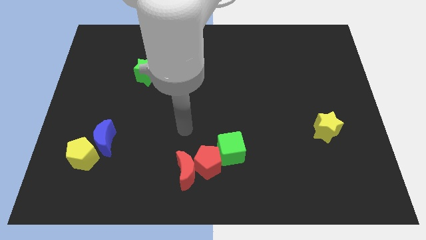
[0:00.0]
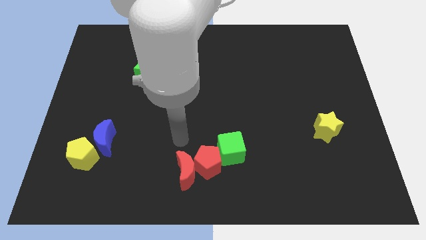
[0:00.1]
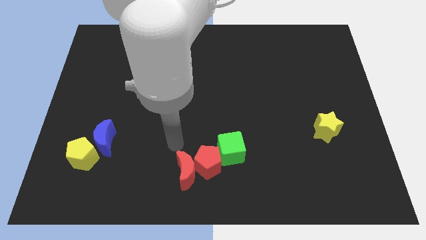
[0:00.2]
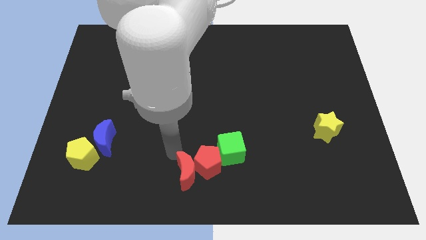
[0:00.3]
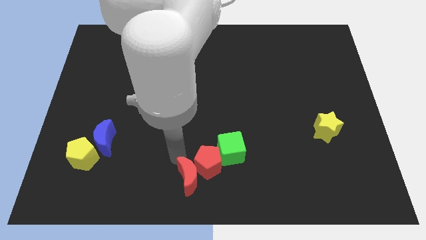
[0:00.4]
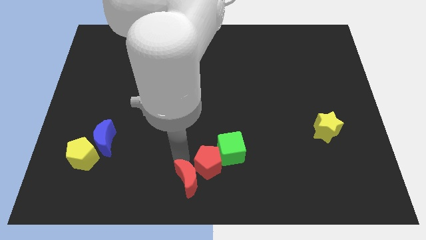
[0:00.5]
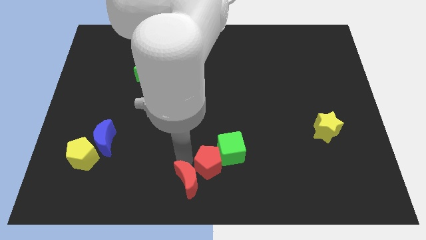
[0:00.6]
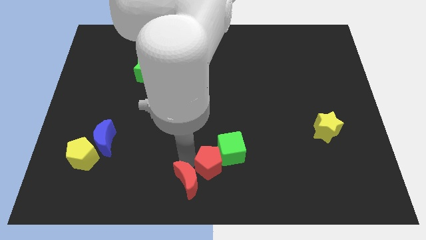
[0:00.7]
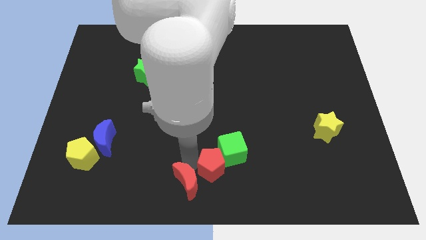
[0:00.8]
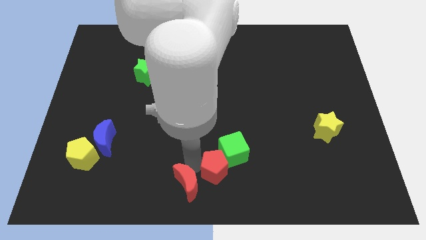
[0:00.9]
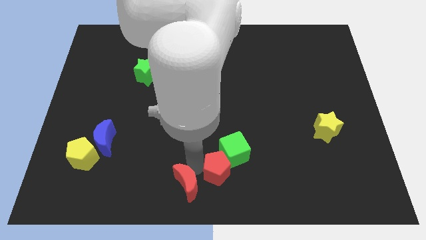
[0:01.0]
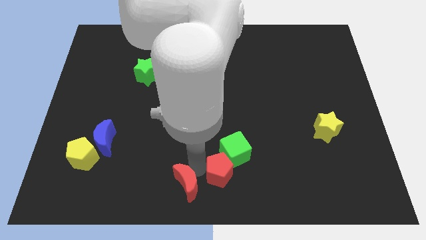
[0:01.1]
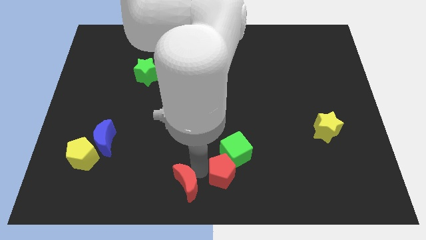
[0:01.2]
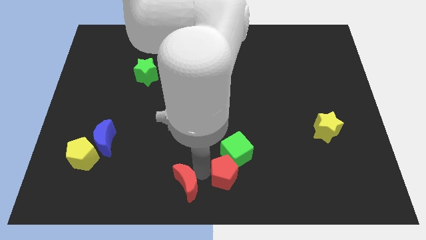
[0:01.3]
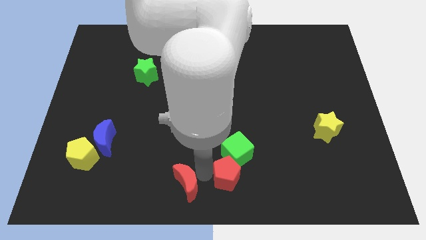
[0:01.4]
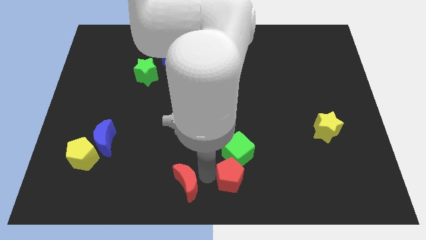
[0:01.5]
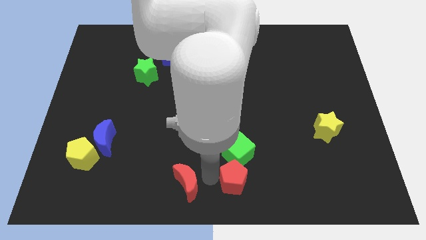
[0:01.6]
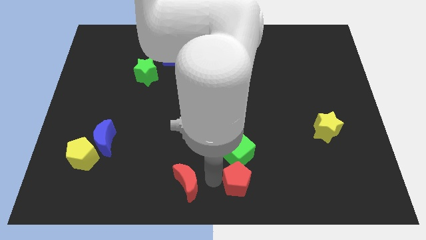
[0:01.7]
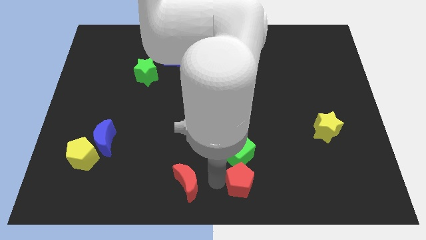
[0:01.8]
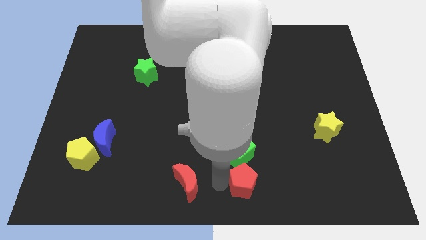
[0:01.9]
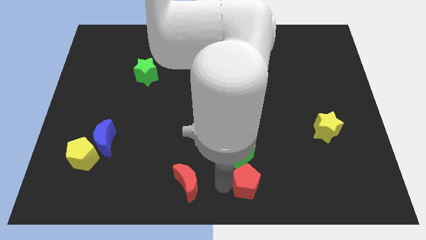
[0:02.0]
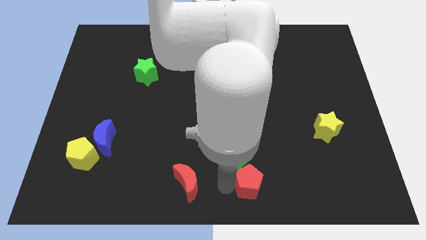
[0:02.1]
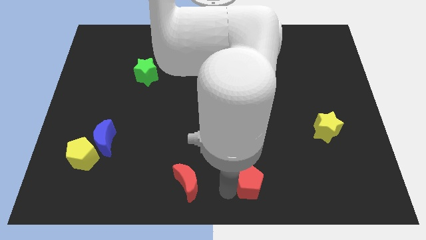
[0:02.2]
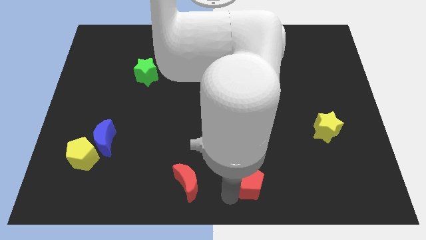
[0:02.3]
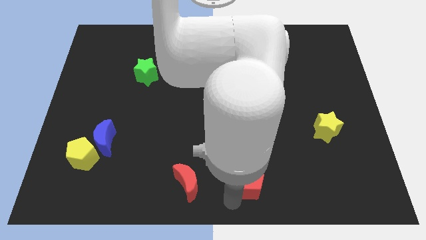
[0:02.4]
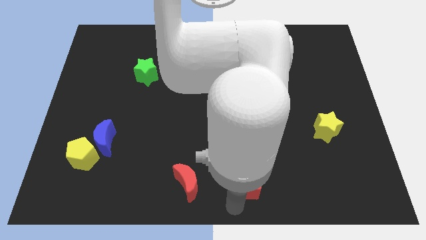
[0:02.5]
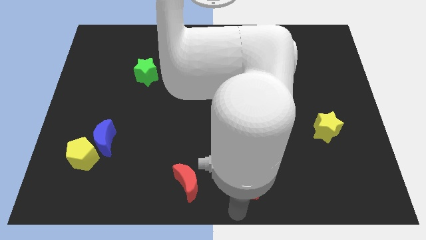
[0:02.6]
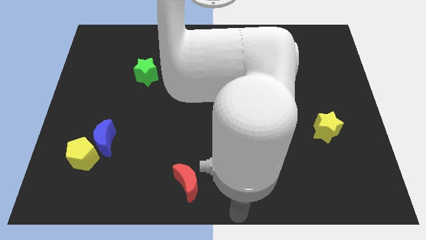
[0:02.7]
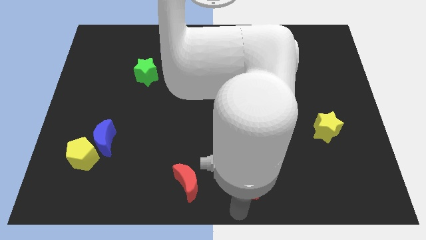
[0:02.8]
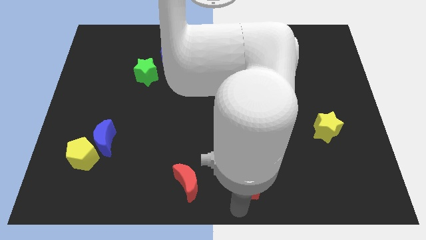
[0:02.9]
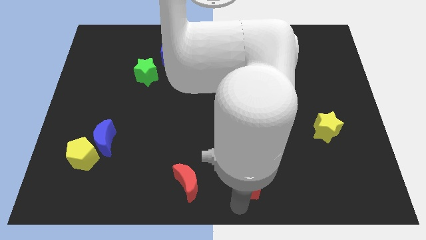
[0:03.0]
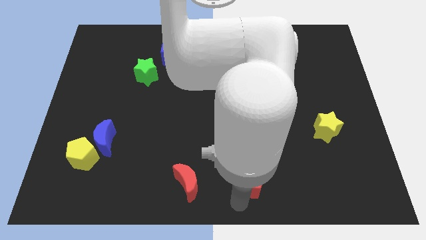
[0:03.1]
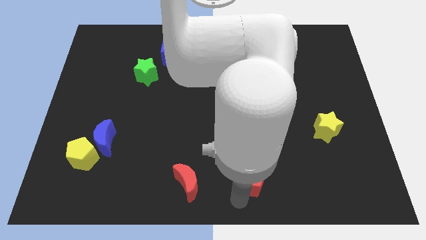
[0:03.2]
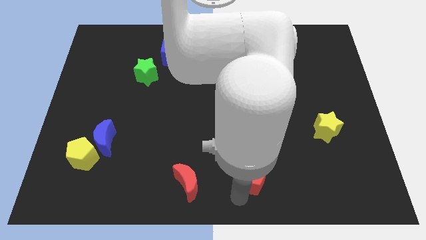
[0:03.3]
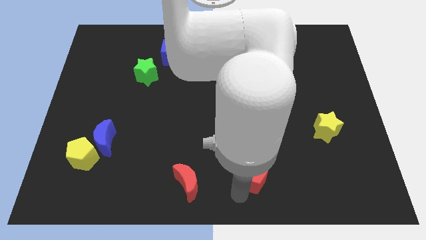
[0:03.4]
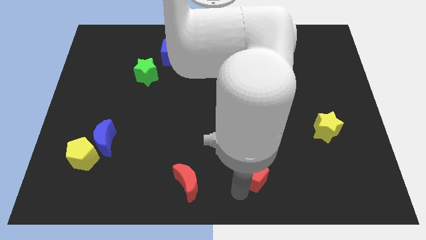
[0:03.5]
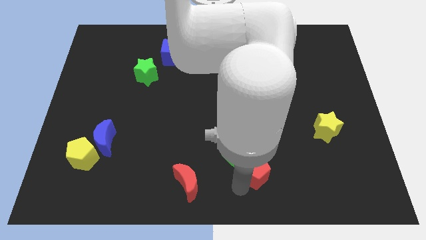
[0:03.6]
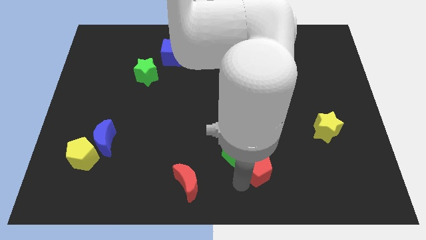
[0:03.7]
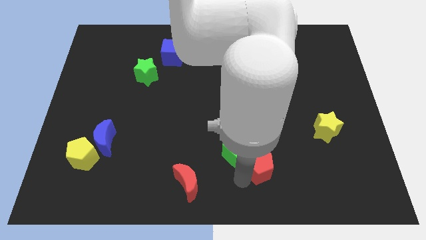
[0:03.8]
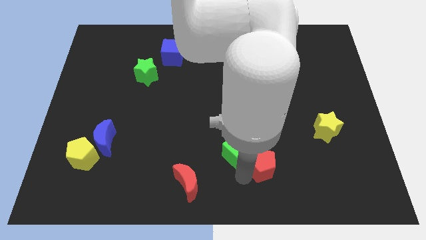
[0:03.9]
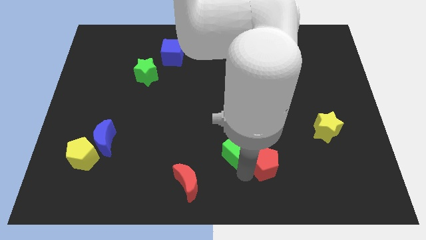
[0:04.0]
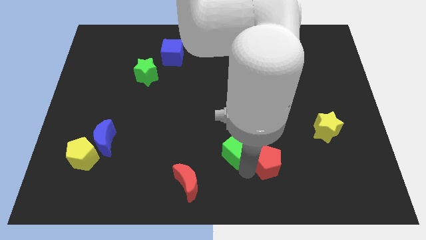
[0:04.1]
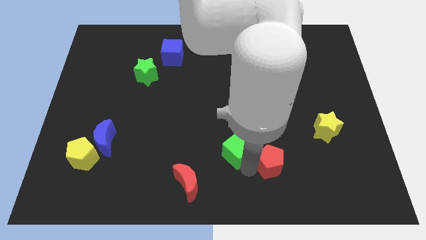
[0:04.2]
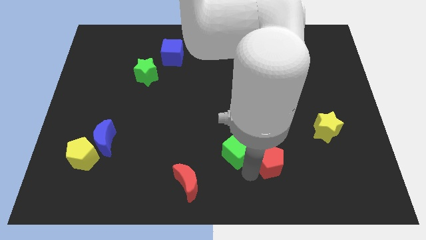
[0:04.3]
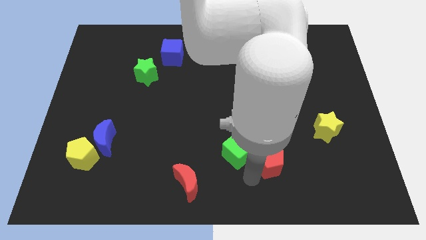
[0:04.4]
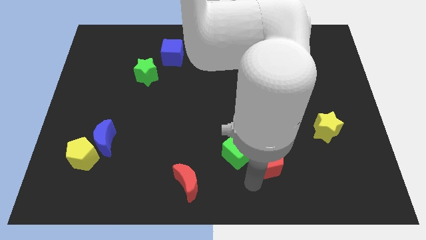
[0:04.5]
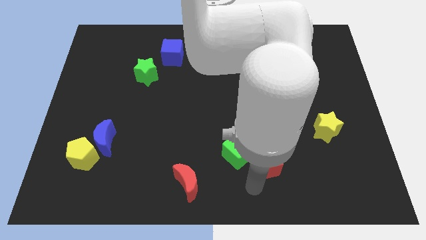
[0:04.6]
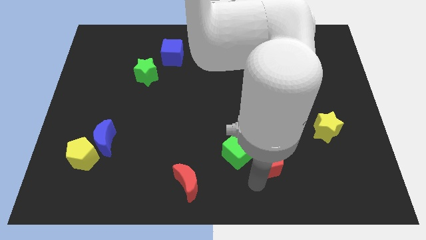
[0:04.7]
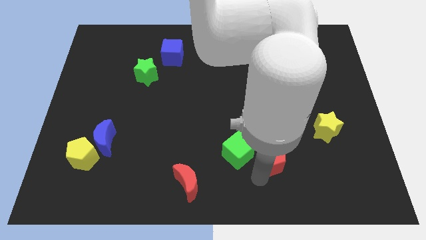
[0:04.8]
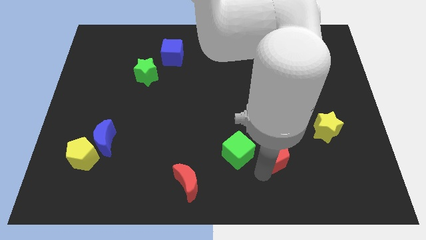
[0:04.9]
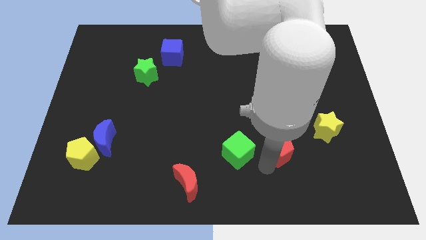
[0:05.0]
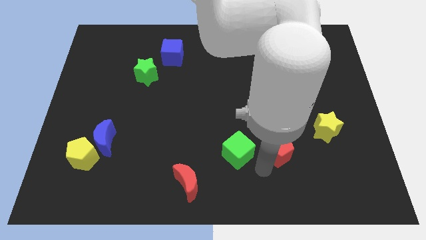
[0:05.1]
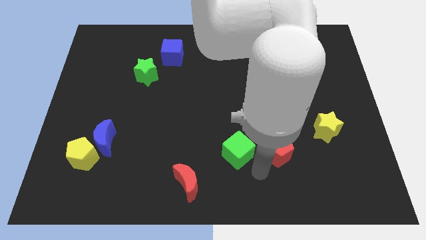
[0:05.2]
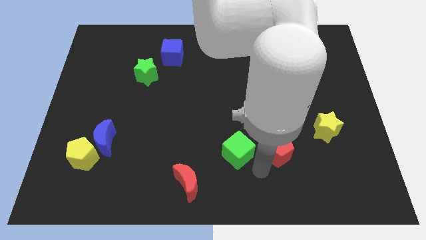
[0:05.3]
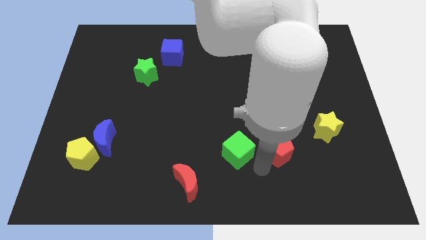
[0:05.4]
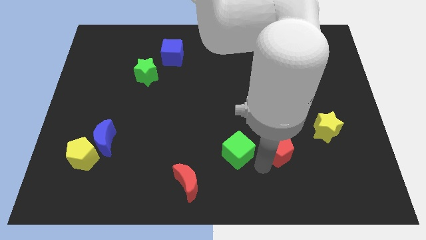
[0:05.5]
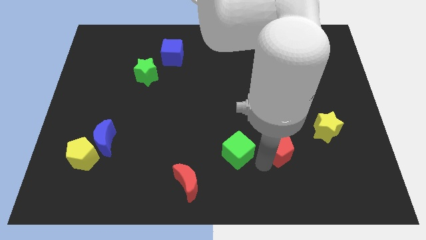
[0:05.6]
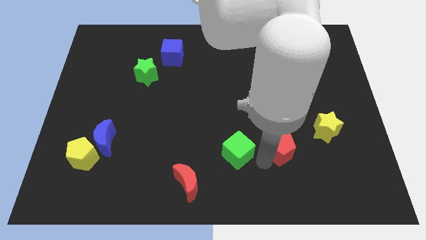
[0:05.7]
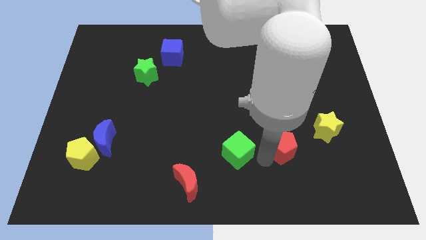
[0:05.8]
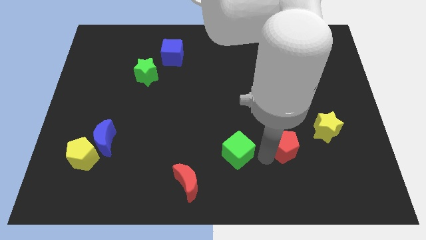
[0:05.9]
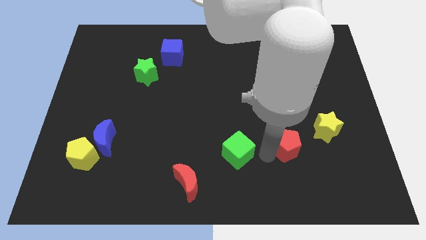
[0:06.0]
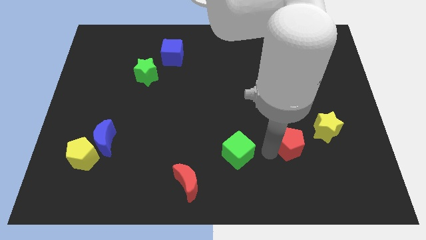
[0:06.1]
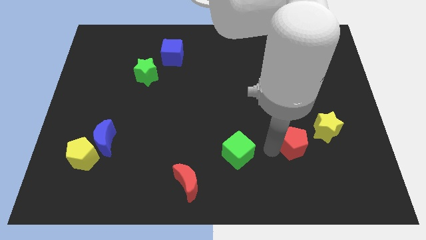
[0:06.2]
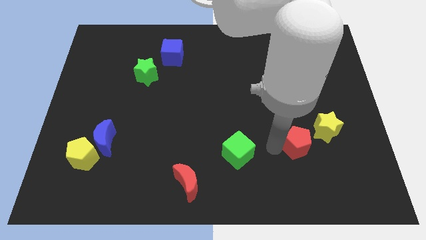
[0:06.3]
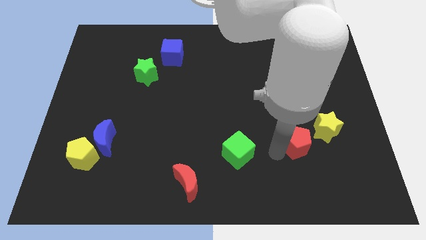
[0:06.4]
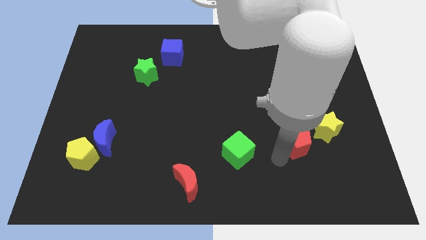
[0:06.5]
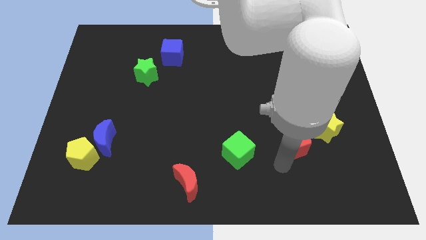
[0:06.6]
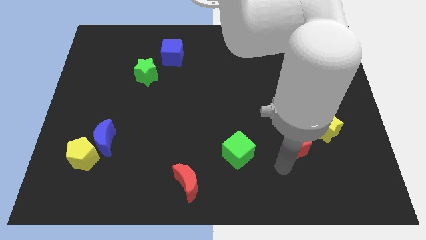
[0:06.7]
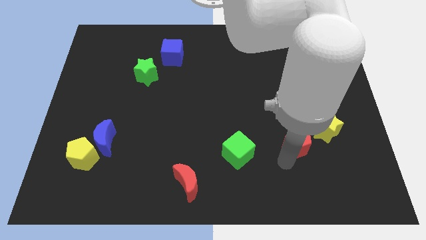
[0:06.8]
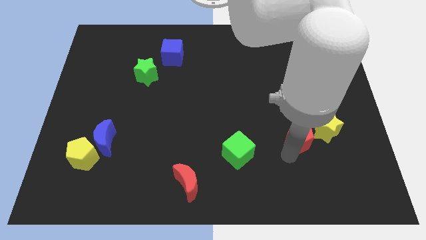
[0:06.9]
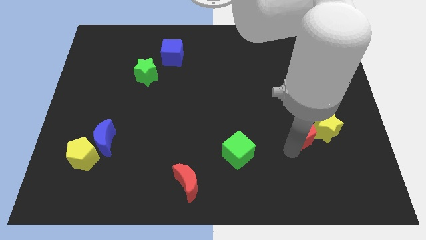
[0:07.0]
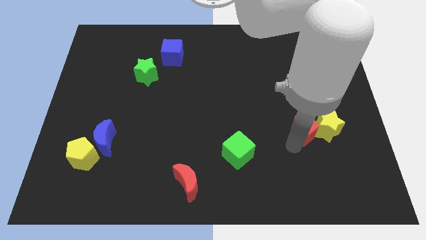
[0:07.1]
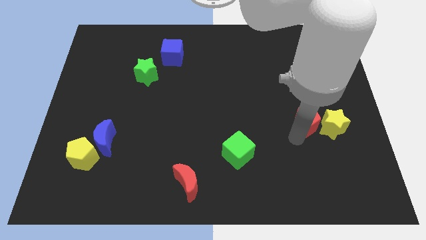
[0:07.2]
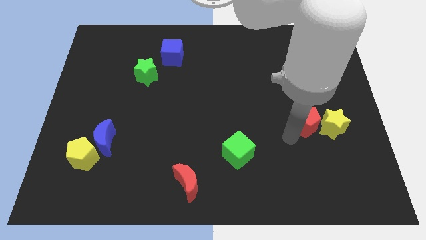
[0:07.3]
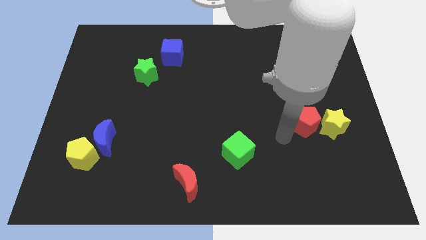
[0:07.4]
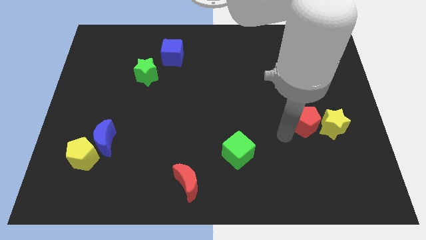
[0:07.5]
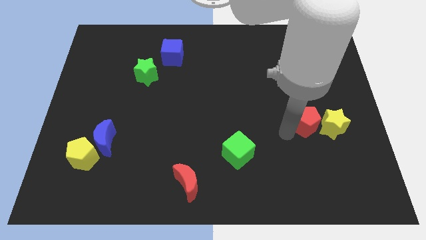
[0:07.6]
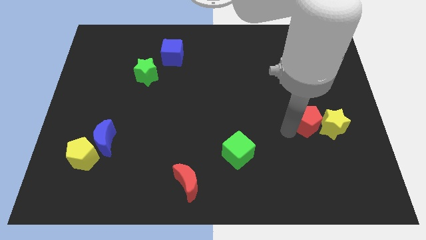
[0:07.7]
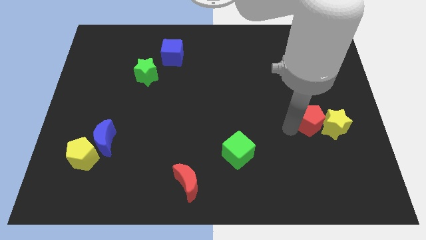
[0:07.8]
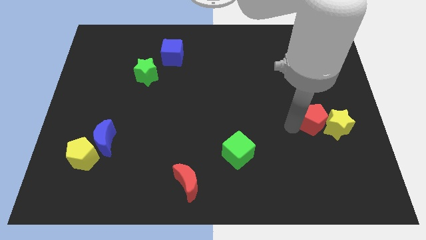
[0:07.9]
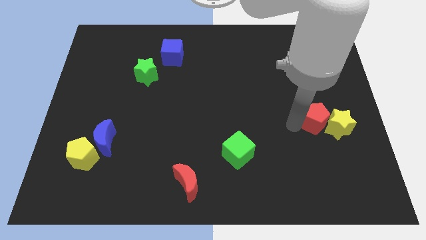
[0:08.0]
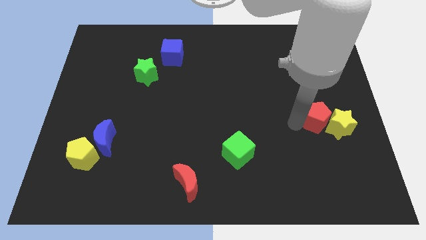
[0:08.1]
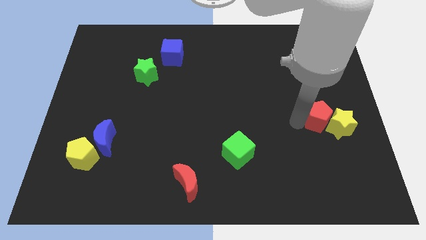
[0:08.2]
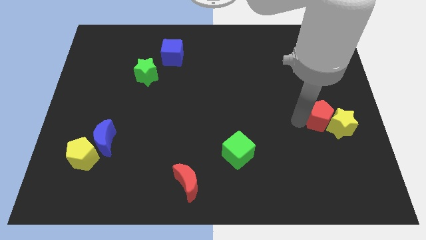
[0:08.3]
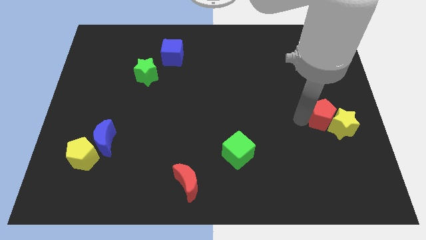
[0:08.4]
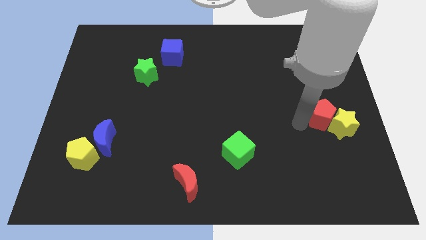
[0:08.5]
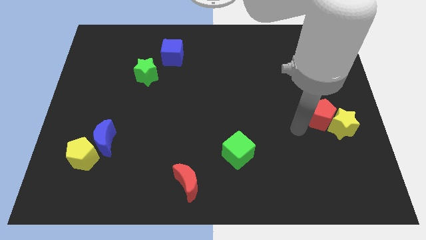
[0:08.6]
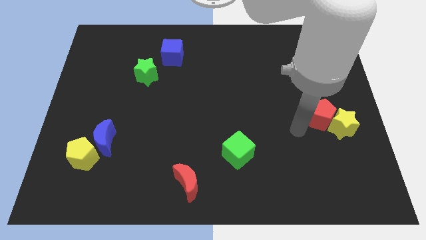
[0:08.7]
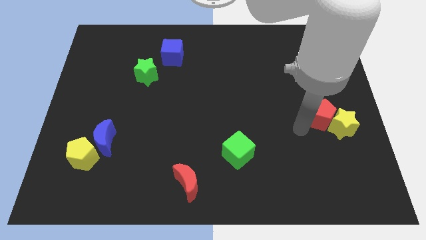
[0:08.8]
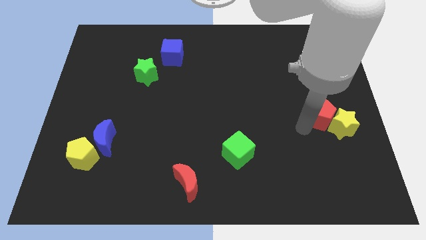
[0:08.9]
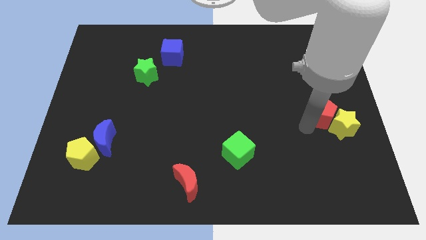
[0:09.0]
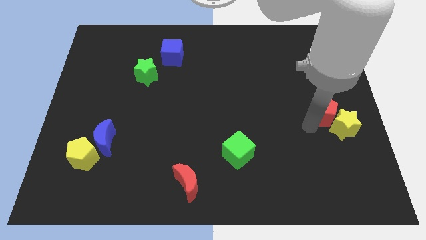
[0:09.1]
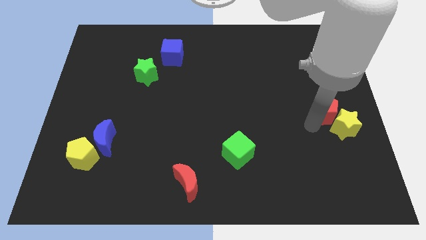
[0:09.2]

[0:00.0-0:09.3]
push the red pentagon to the right side
